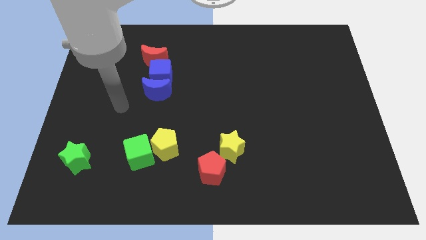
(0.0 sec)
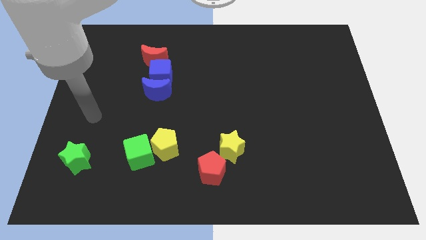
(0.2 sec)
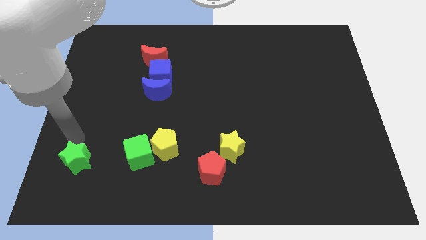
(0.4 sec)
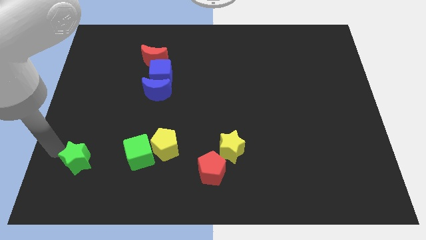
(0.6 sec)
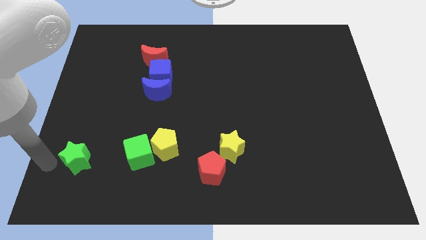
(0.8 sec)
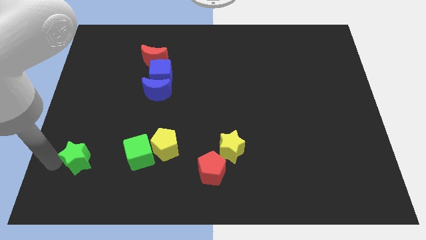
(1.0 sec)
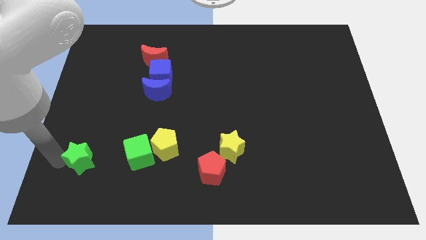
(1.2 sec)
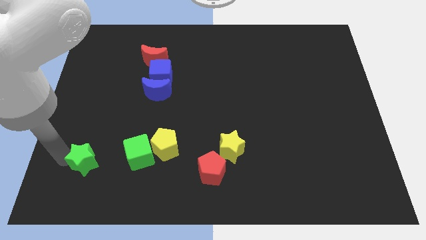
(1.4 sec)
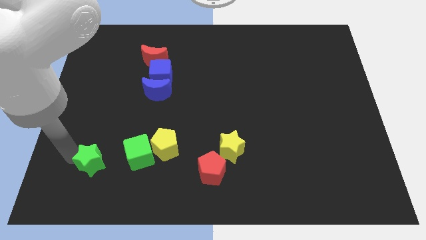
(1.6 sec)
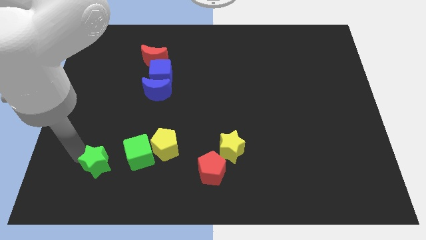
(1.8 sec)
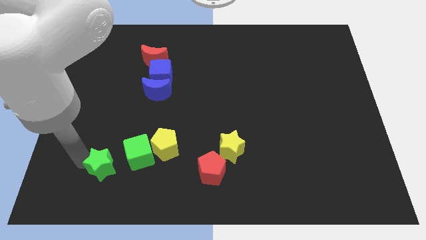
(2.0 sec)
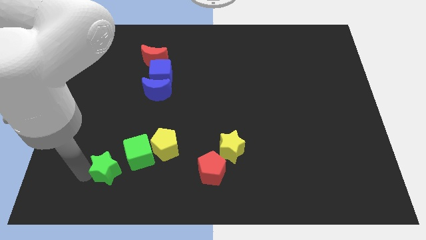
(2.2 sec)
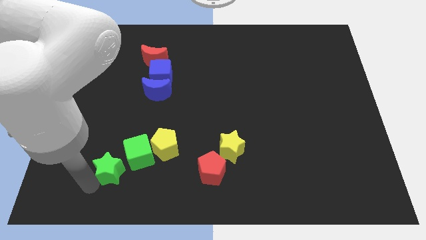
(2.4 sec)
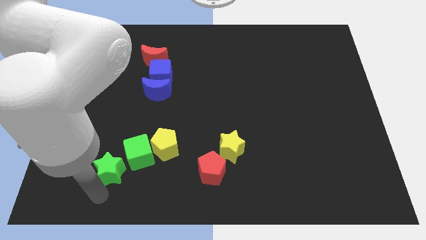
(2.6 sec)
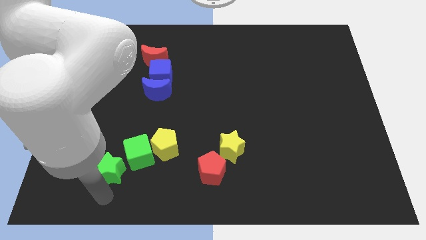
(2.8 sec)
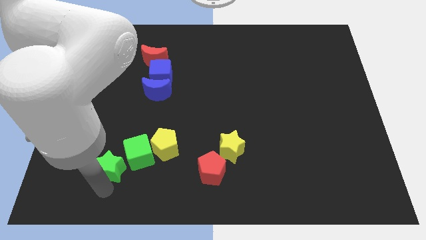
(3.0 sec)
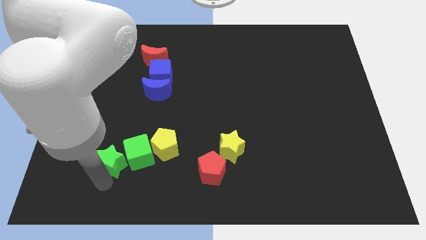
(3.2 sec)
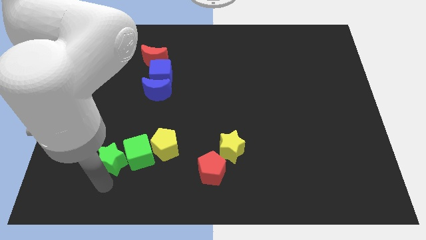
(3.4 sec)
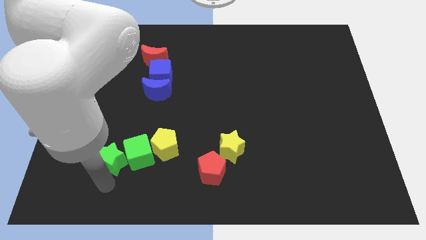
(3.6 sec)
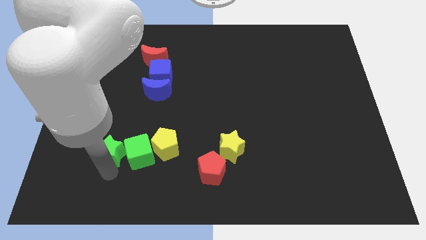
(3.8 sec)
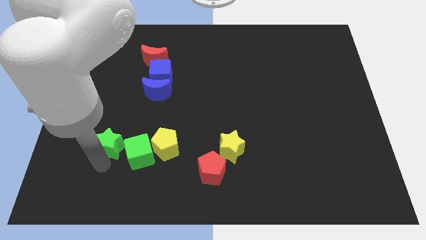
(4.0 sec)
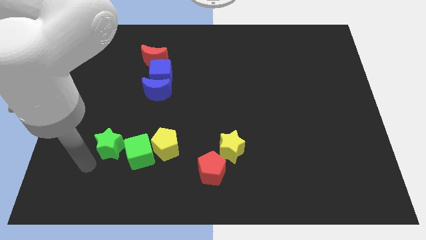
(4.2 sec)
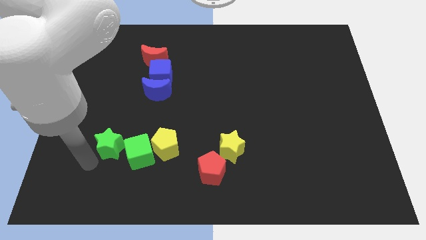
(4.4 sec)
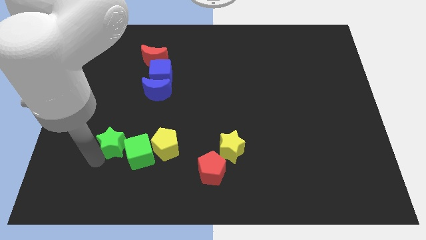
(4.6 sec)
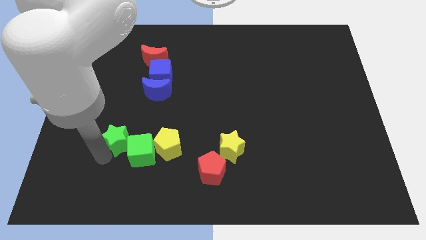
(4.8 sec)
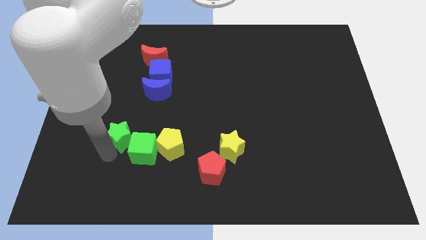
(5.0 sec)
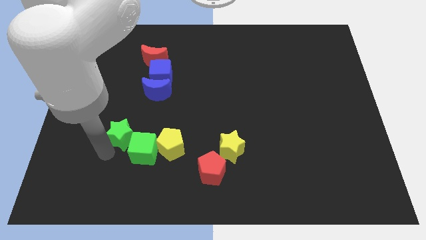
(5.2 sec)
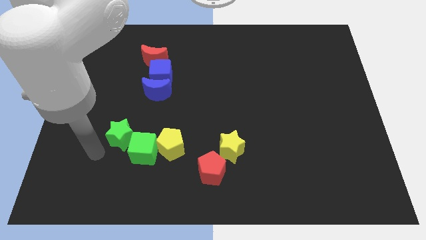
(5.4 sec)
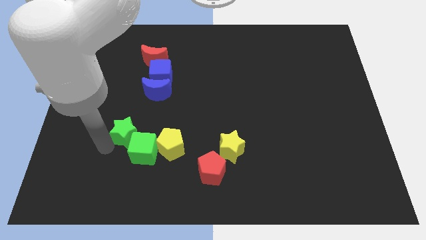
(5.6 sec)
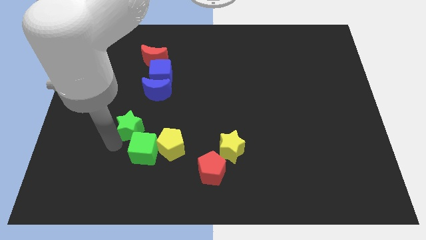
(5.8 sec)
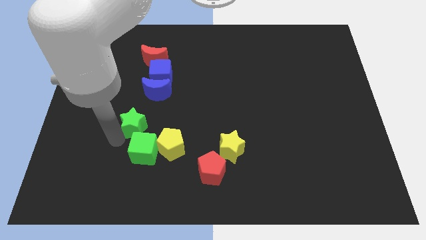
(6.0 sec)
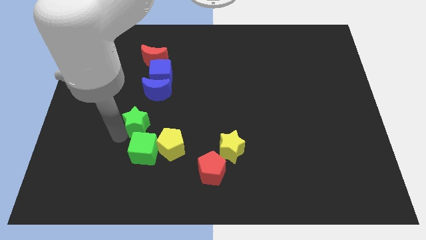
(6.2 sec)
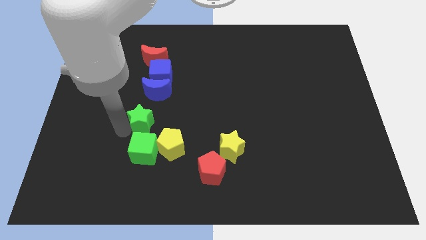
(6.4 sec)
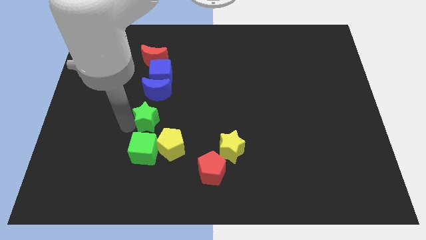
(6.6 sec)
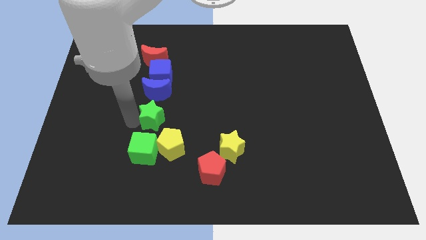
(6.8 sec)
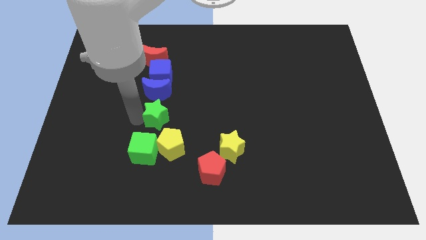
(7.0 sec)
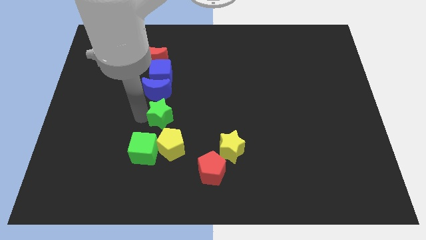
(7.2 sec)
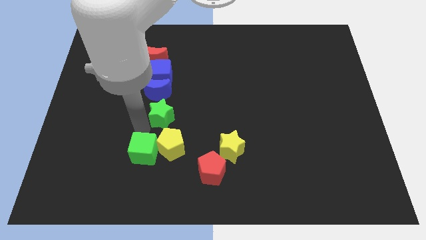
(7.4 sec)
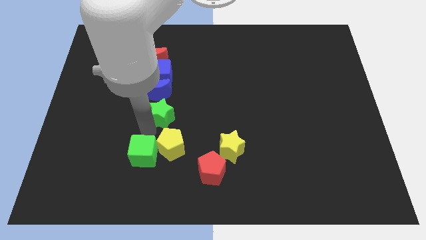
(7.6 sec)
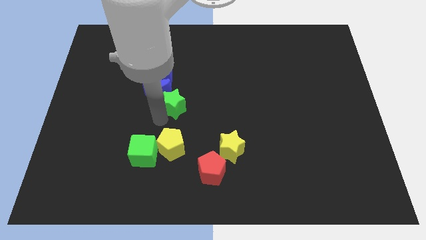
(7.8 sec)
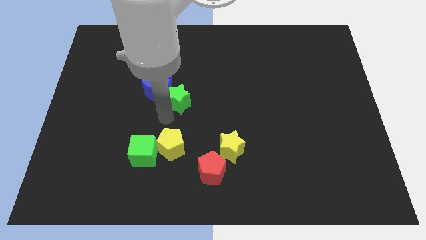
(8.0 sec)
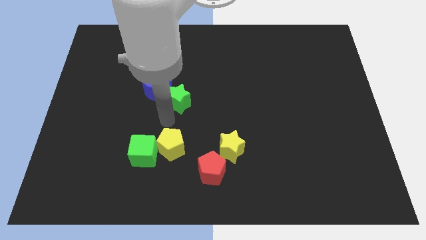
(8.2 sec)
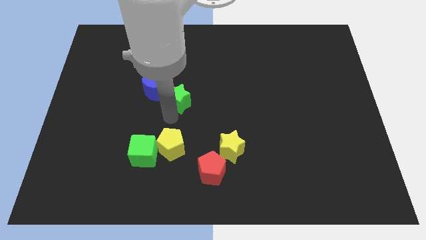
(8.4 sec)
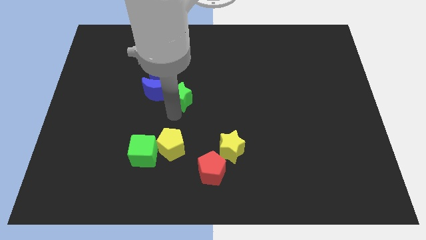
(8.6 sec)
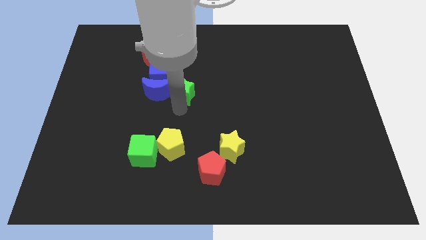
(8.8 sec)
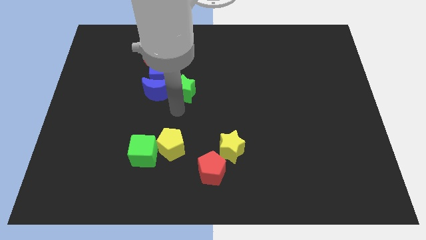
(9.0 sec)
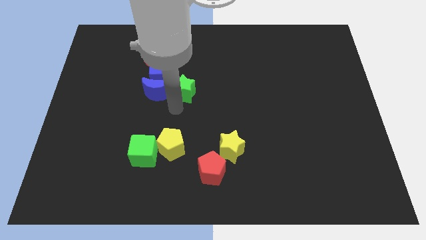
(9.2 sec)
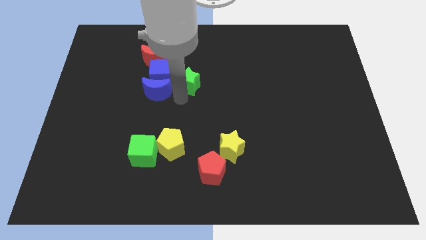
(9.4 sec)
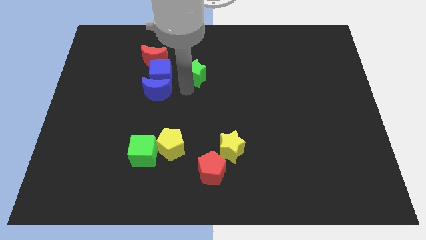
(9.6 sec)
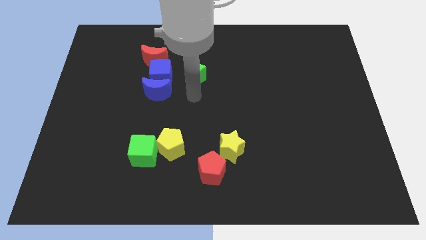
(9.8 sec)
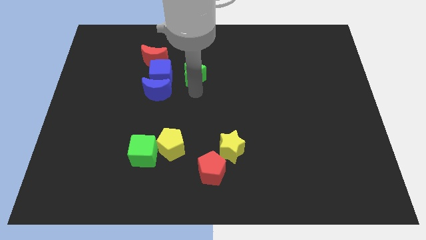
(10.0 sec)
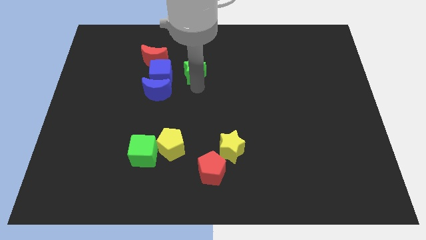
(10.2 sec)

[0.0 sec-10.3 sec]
slide the green star right of the red moon

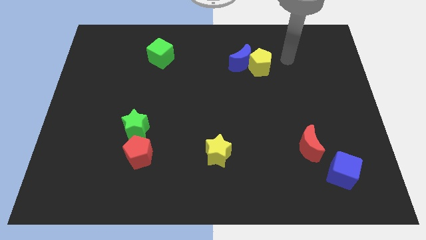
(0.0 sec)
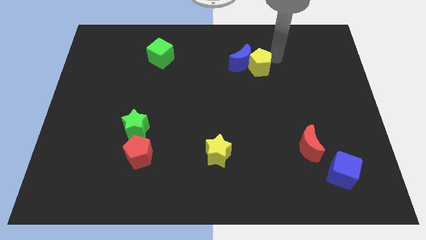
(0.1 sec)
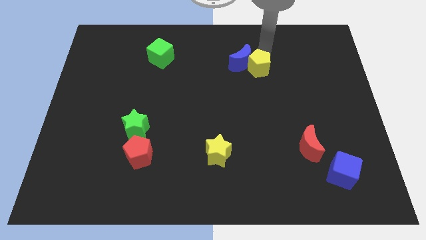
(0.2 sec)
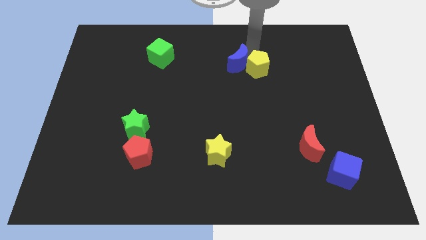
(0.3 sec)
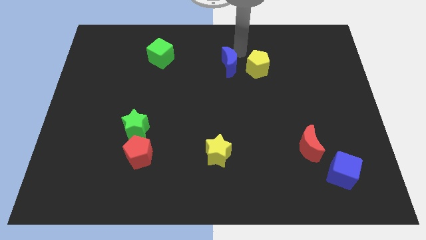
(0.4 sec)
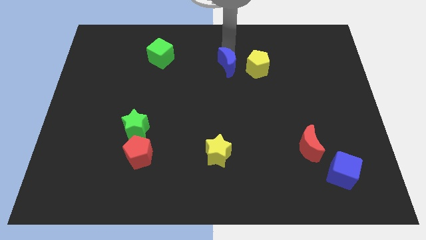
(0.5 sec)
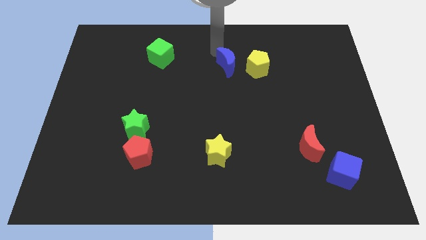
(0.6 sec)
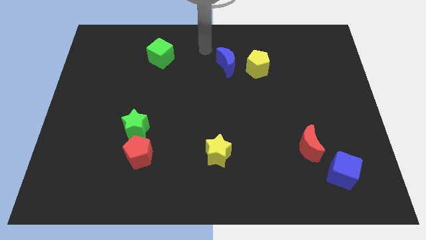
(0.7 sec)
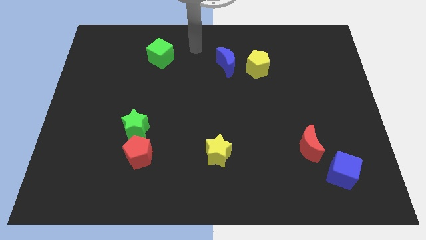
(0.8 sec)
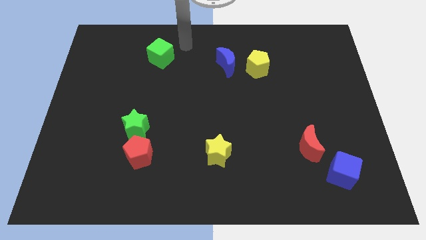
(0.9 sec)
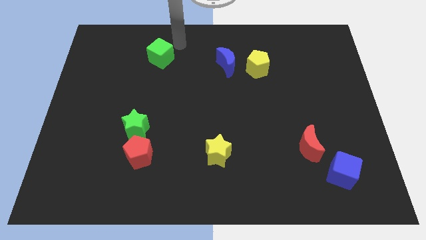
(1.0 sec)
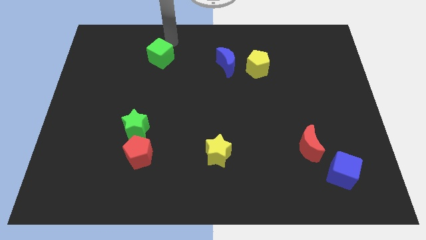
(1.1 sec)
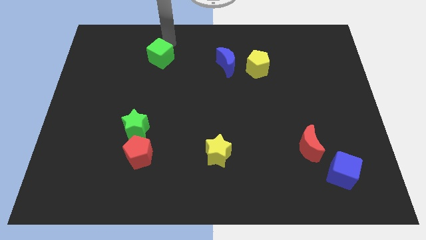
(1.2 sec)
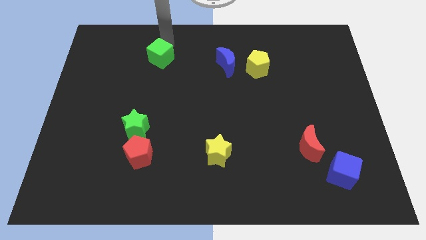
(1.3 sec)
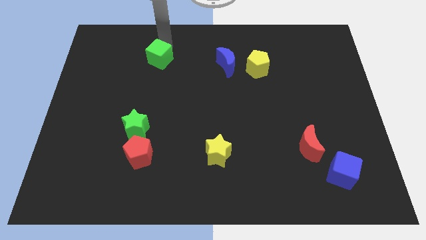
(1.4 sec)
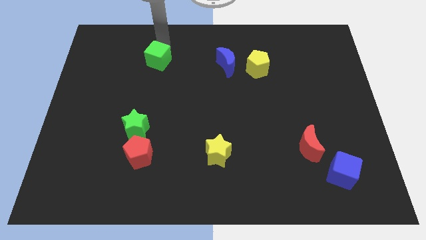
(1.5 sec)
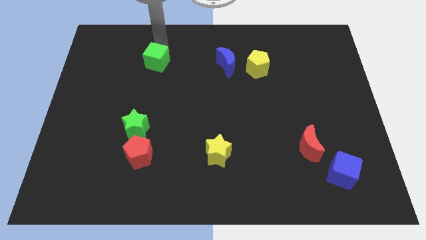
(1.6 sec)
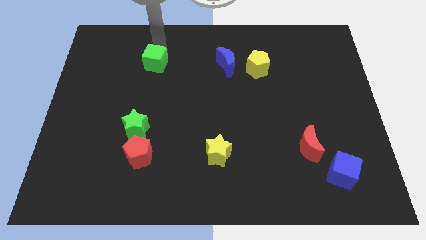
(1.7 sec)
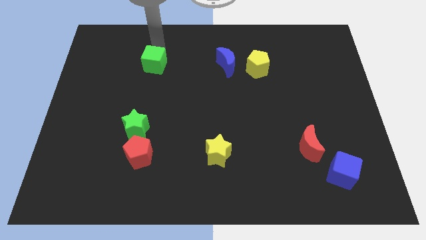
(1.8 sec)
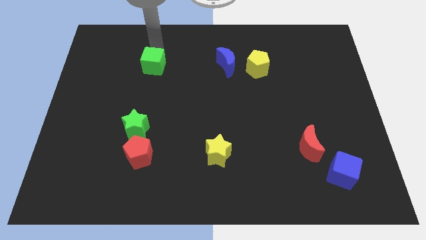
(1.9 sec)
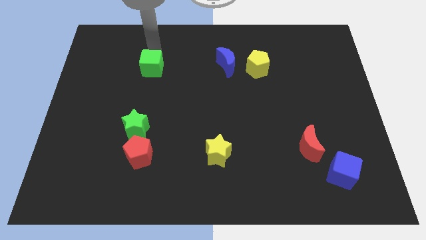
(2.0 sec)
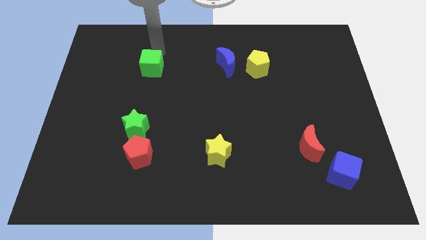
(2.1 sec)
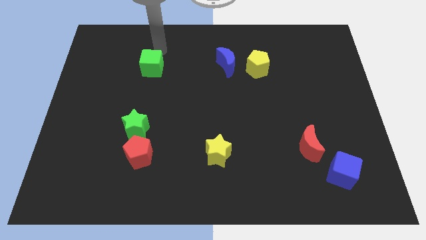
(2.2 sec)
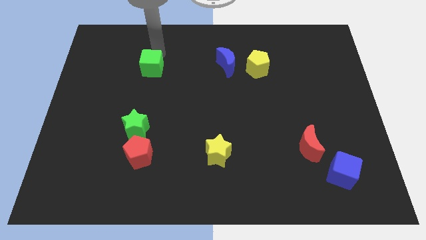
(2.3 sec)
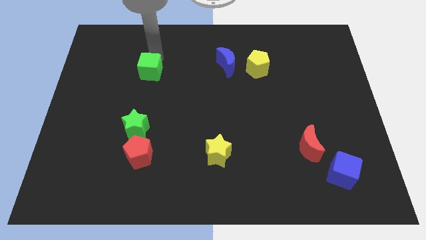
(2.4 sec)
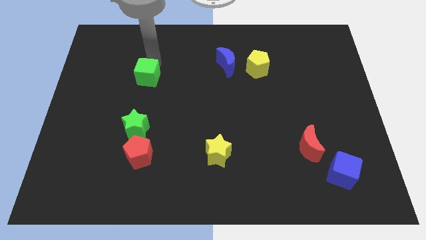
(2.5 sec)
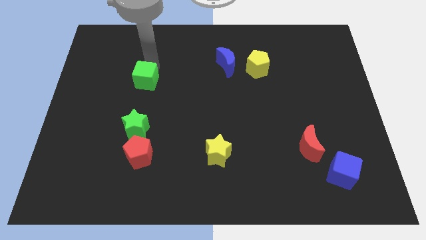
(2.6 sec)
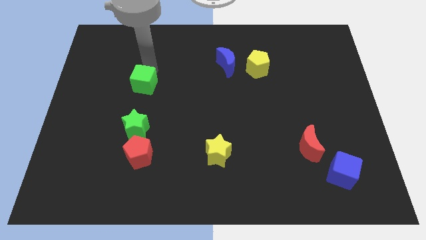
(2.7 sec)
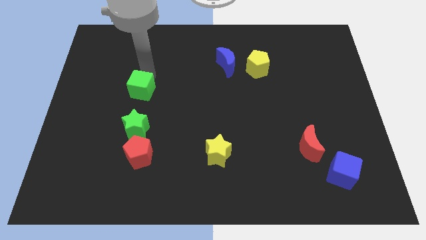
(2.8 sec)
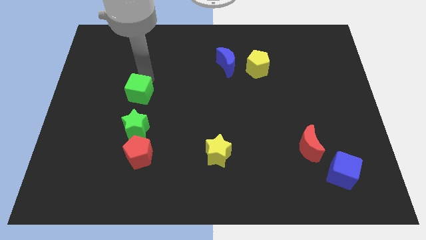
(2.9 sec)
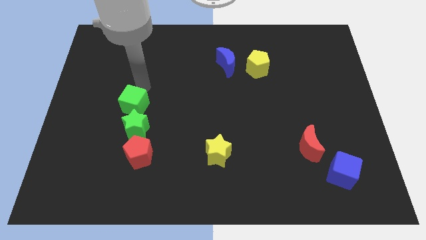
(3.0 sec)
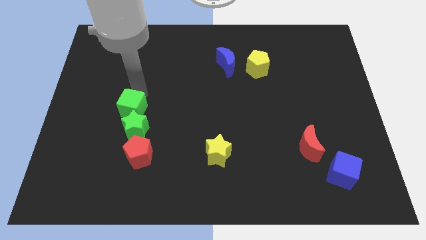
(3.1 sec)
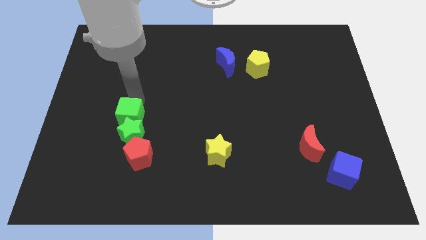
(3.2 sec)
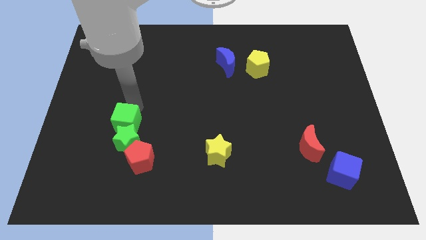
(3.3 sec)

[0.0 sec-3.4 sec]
push the green cube diagonally up and to the left of the red pentagon
